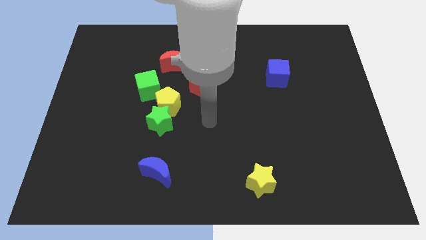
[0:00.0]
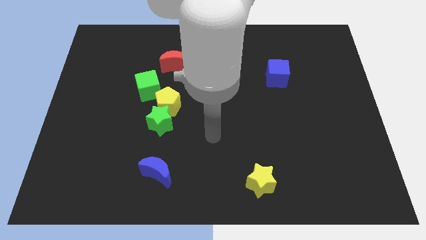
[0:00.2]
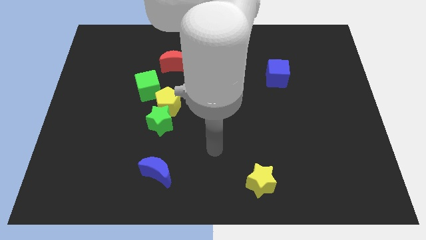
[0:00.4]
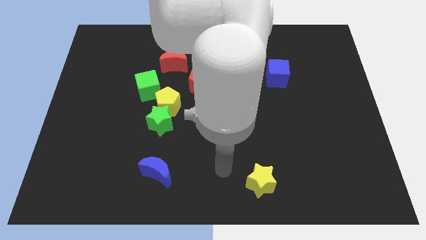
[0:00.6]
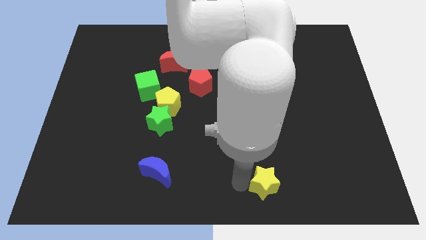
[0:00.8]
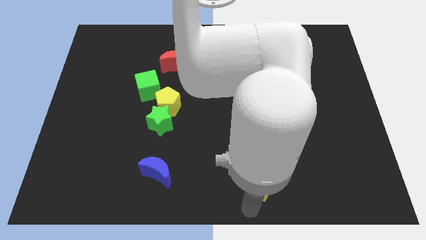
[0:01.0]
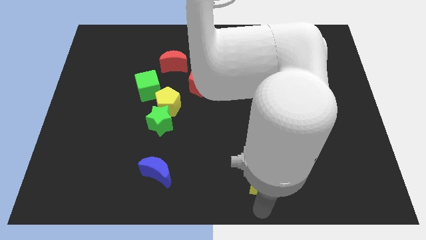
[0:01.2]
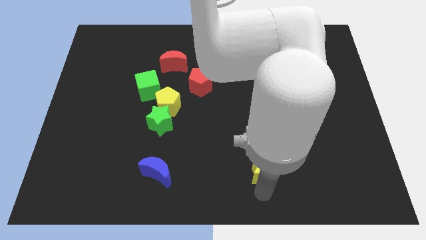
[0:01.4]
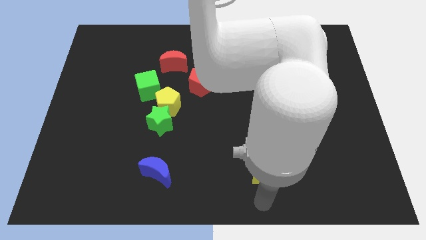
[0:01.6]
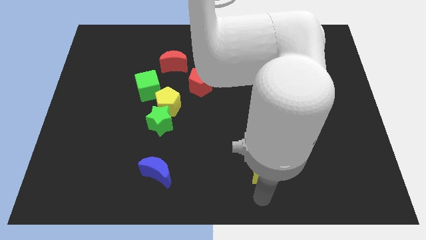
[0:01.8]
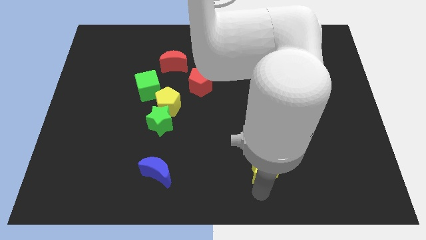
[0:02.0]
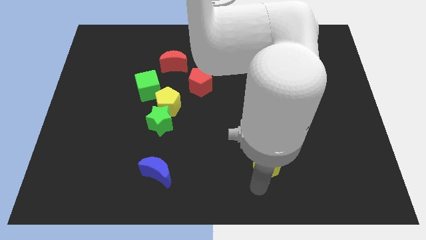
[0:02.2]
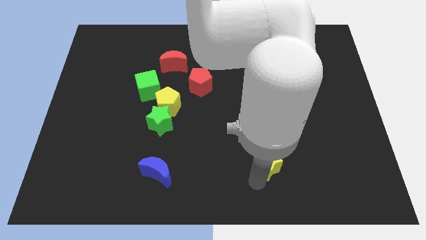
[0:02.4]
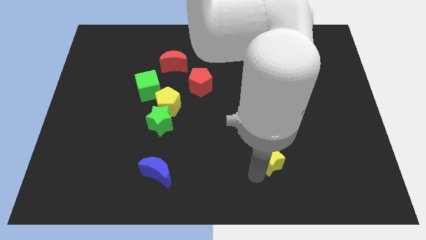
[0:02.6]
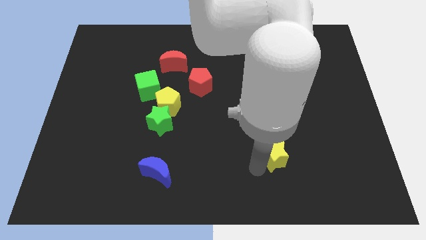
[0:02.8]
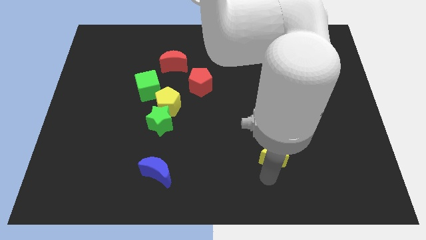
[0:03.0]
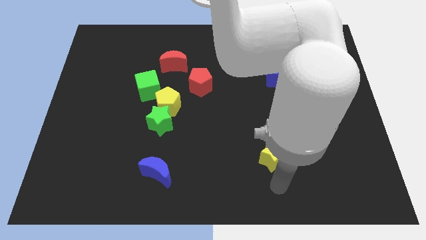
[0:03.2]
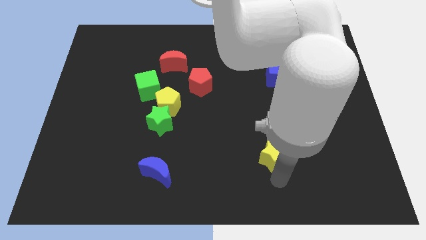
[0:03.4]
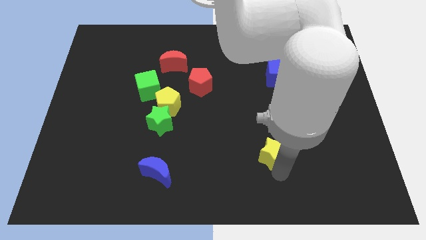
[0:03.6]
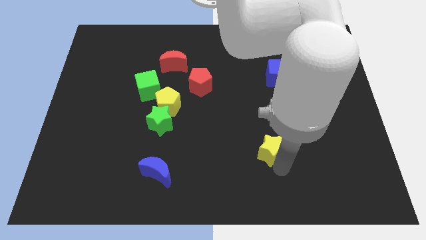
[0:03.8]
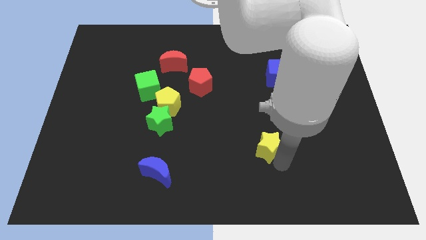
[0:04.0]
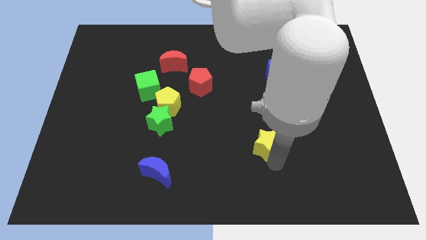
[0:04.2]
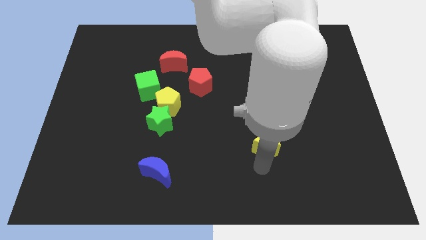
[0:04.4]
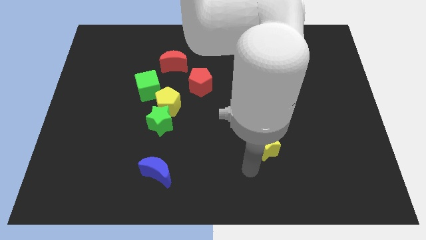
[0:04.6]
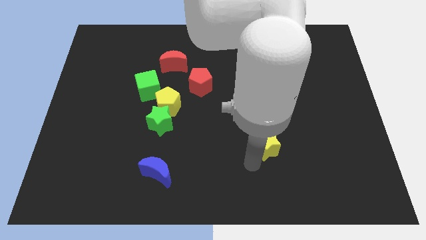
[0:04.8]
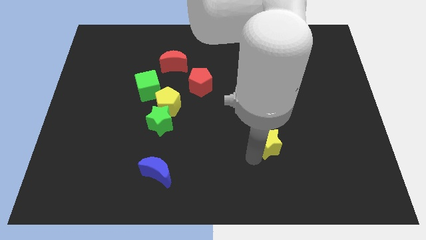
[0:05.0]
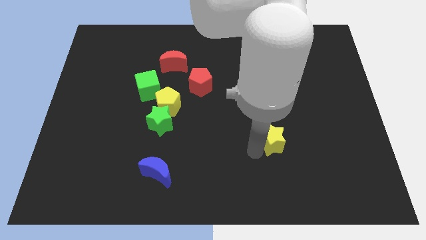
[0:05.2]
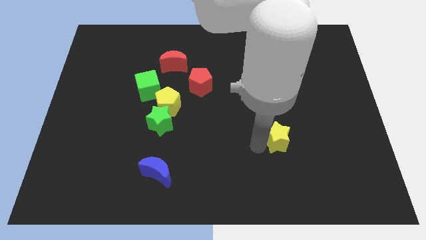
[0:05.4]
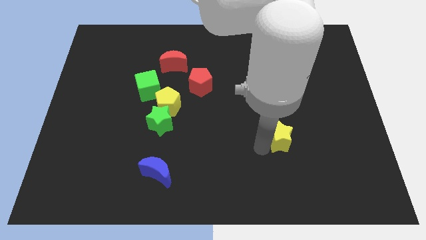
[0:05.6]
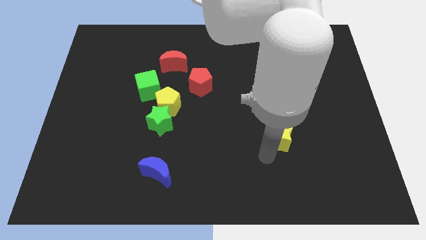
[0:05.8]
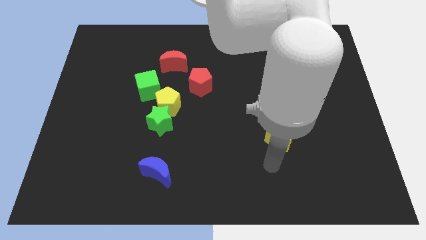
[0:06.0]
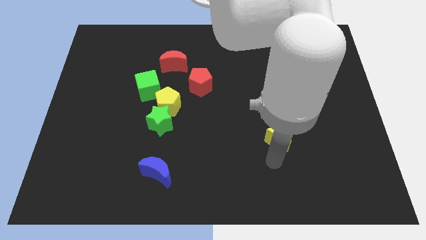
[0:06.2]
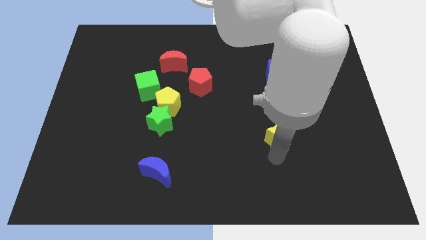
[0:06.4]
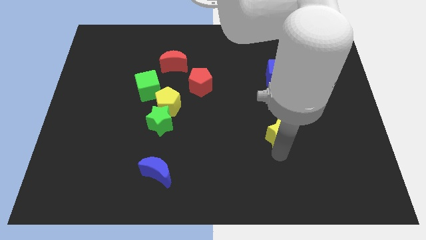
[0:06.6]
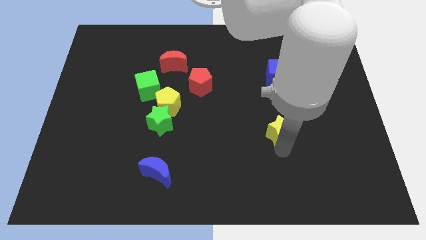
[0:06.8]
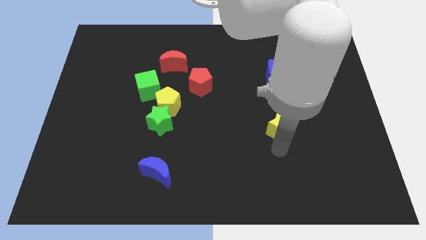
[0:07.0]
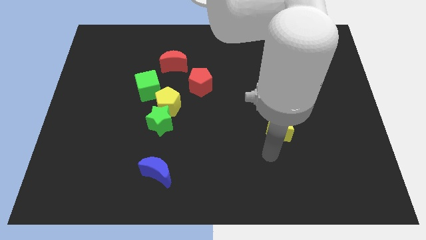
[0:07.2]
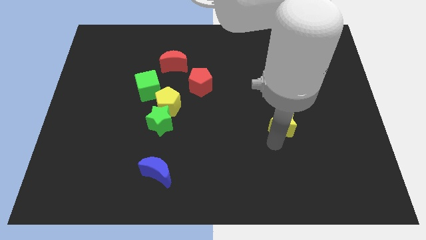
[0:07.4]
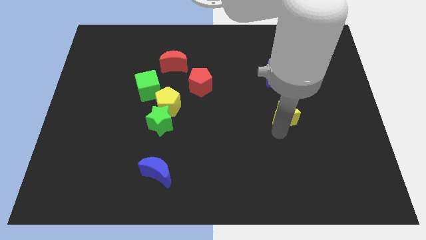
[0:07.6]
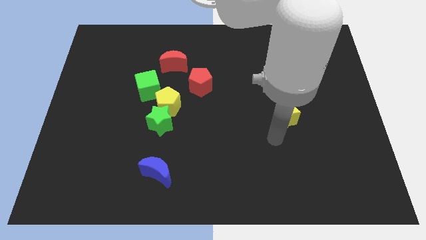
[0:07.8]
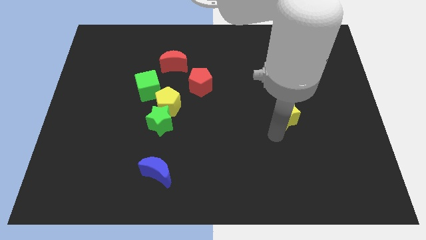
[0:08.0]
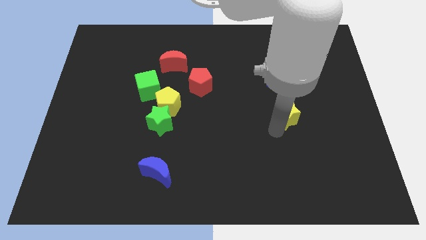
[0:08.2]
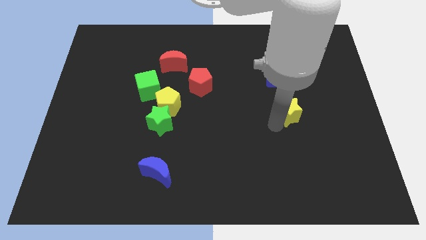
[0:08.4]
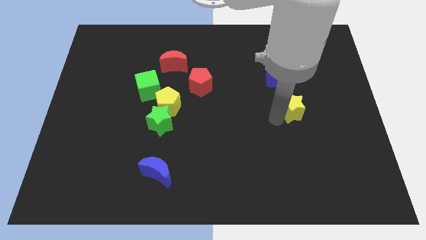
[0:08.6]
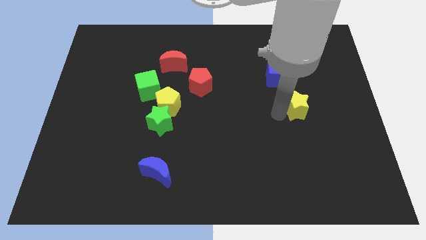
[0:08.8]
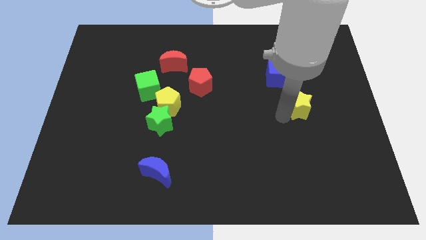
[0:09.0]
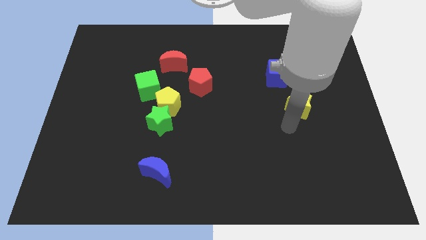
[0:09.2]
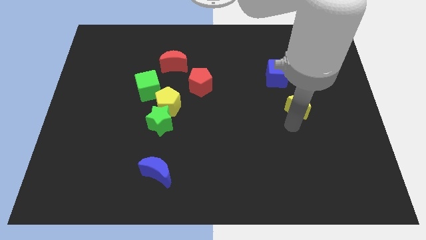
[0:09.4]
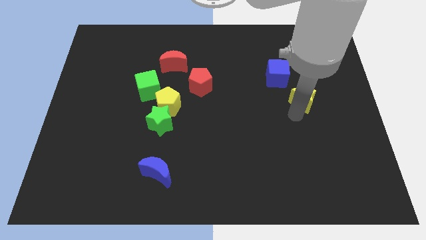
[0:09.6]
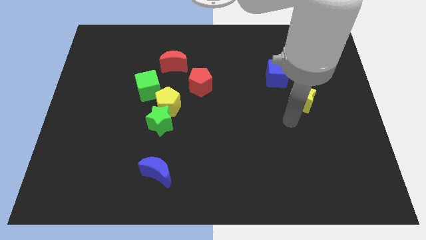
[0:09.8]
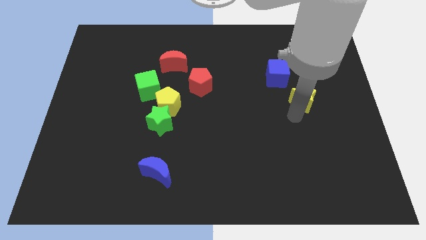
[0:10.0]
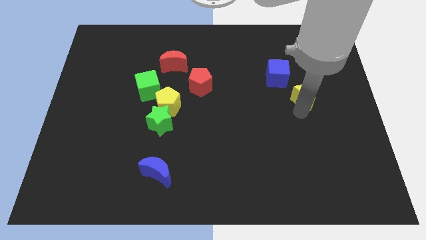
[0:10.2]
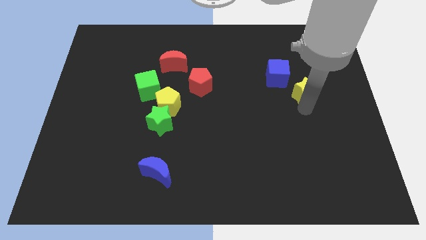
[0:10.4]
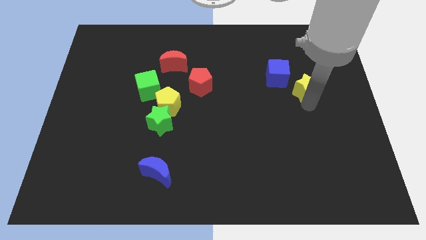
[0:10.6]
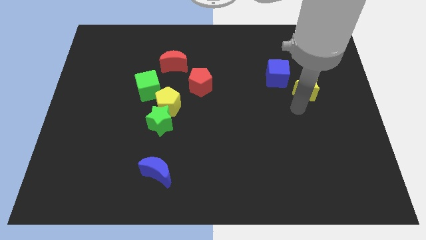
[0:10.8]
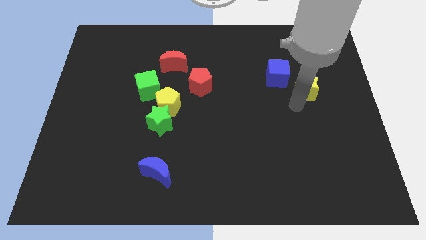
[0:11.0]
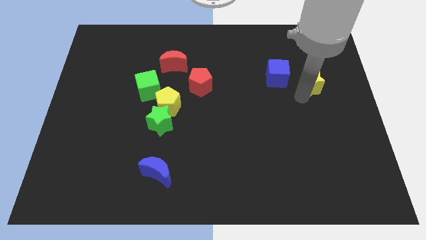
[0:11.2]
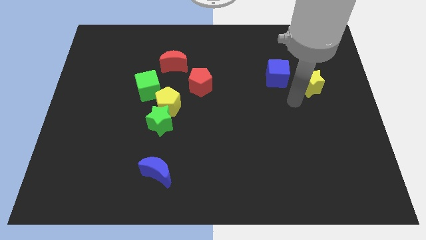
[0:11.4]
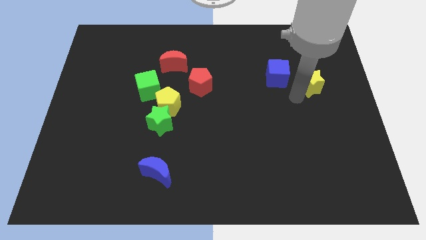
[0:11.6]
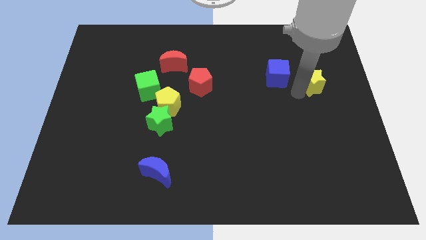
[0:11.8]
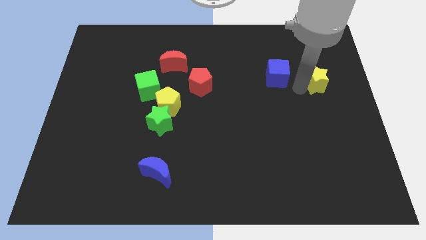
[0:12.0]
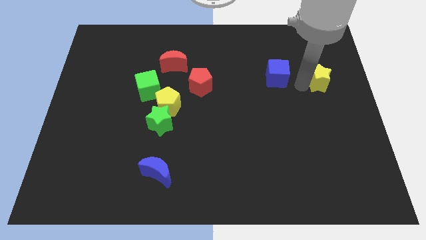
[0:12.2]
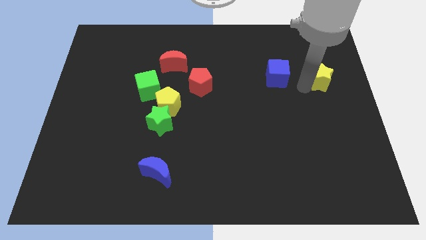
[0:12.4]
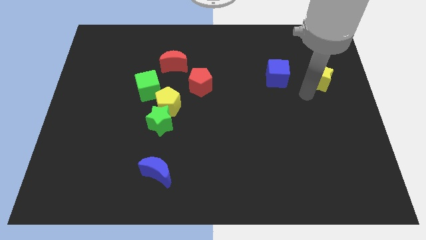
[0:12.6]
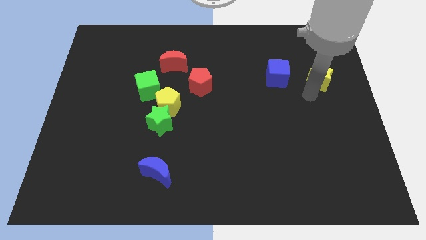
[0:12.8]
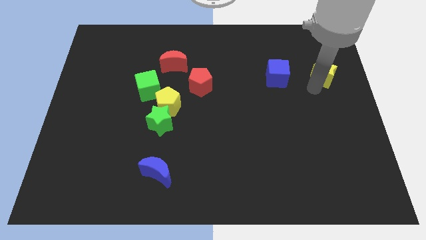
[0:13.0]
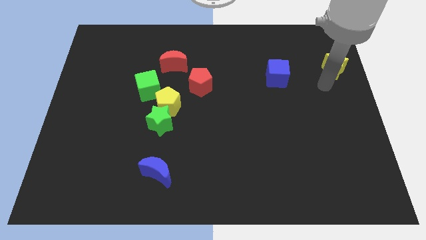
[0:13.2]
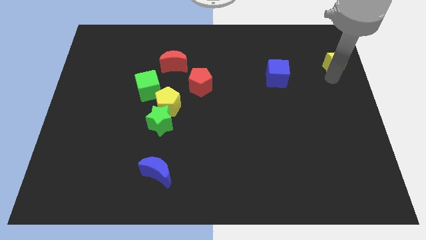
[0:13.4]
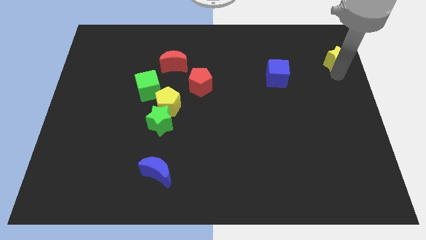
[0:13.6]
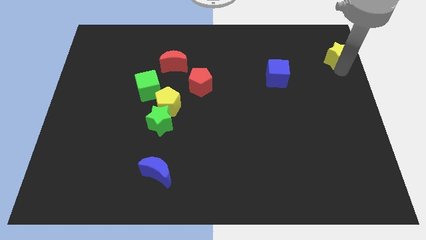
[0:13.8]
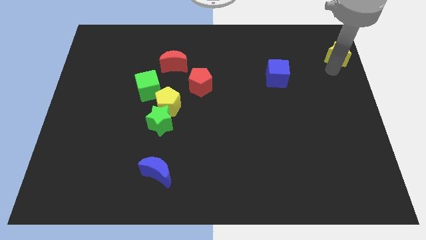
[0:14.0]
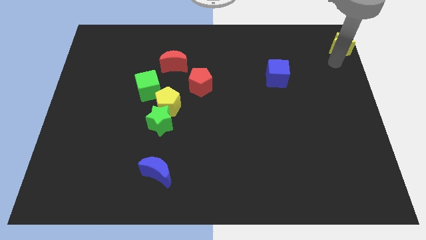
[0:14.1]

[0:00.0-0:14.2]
move the yellow star to the top right corner
